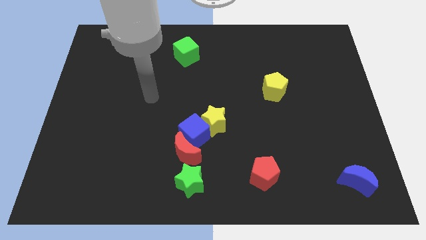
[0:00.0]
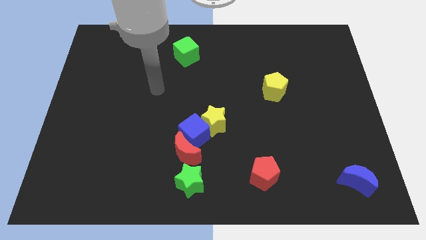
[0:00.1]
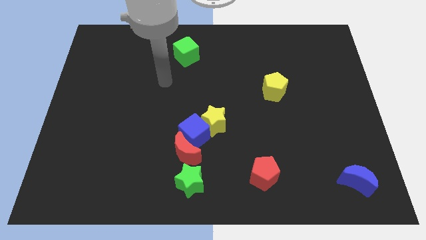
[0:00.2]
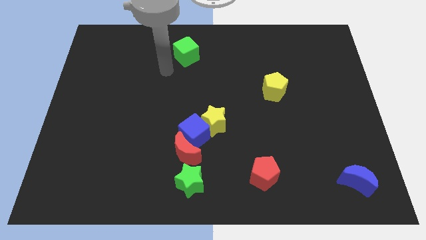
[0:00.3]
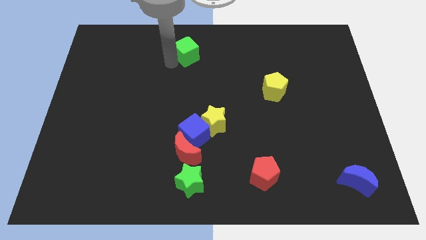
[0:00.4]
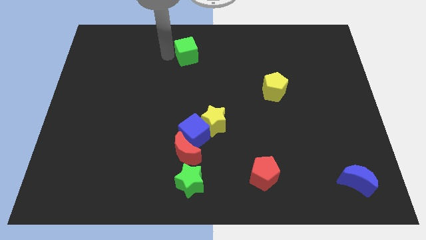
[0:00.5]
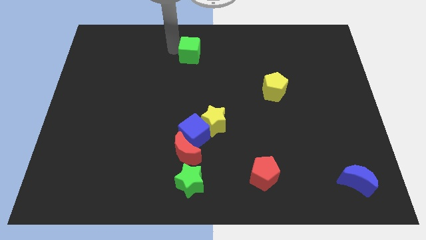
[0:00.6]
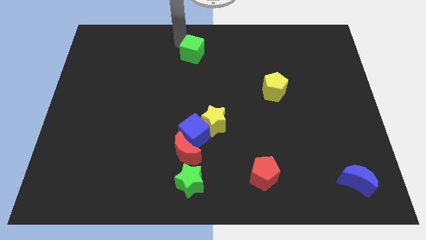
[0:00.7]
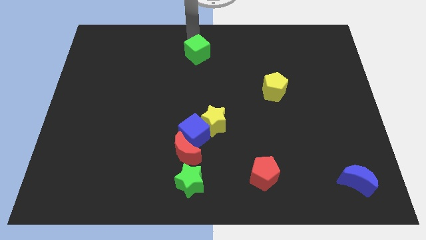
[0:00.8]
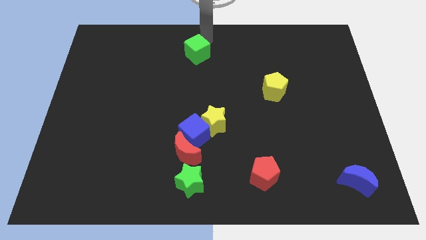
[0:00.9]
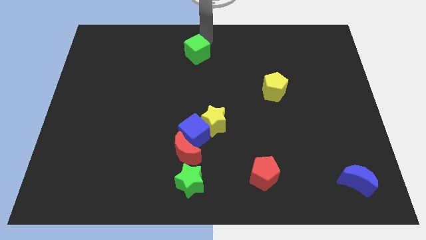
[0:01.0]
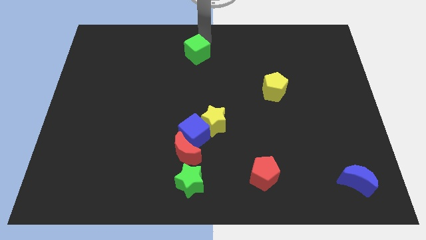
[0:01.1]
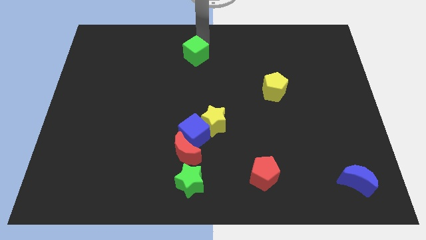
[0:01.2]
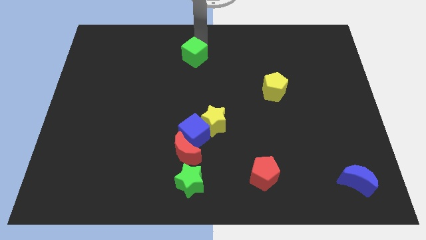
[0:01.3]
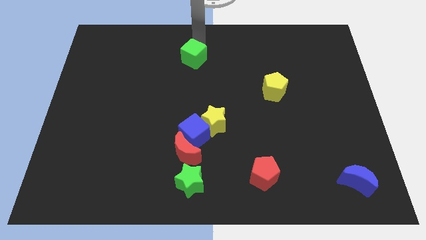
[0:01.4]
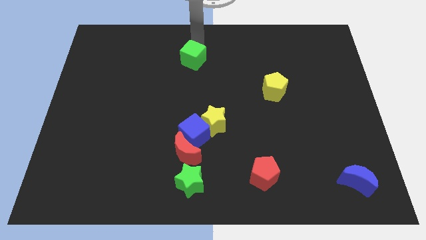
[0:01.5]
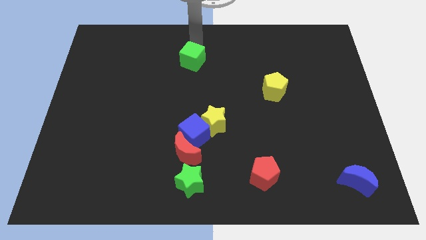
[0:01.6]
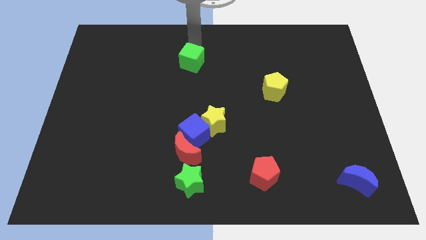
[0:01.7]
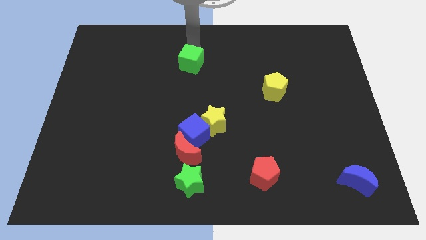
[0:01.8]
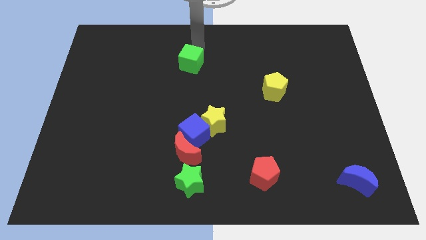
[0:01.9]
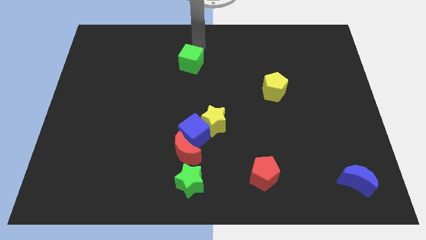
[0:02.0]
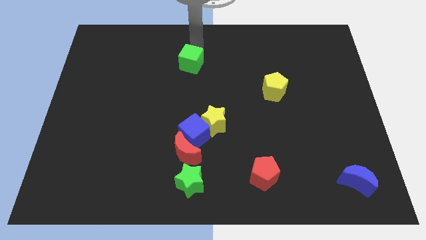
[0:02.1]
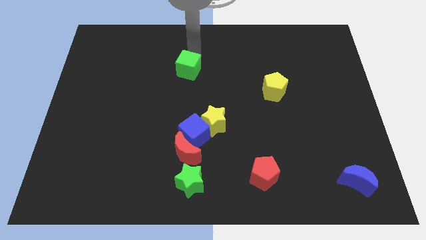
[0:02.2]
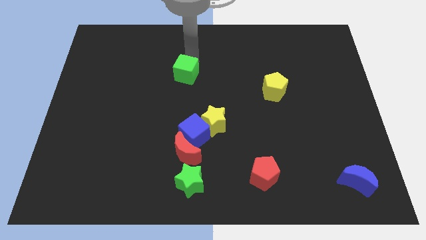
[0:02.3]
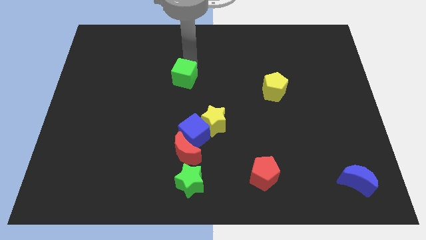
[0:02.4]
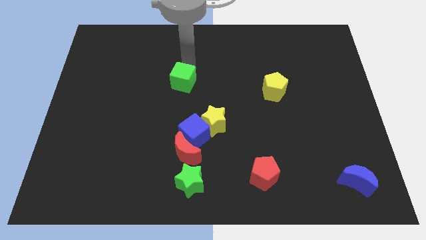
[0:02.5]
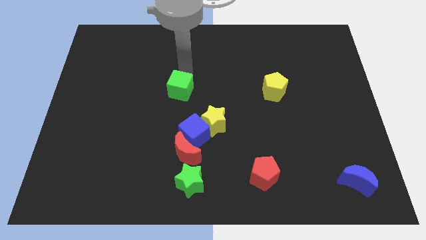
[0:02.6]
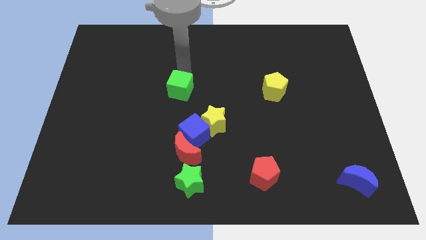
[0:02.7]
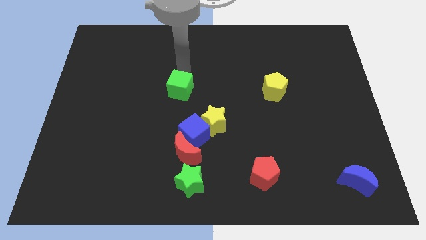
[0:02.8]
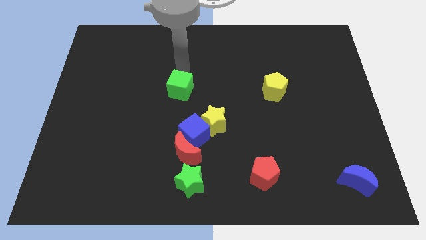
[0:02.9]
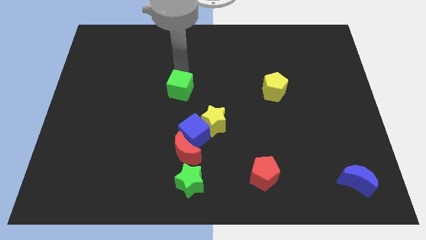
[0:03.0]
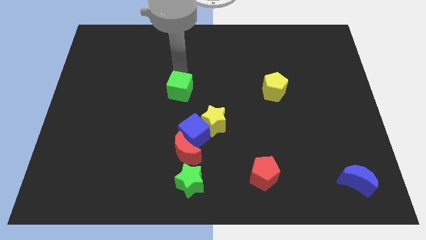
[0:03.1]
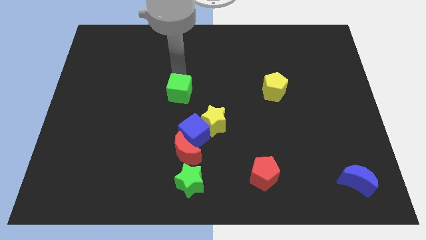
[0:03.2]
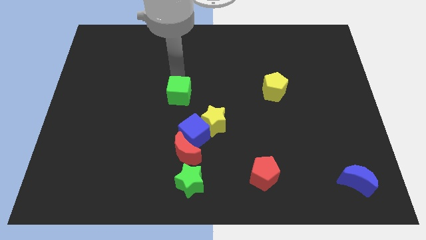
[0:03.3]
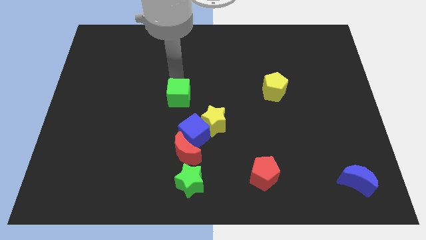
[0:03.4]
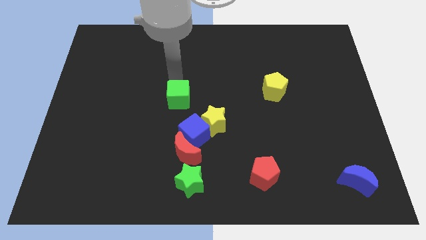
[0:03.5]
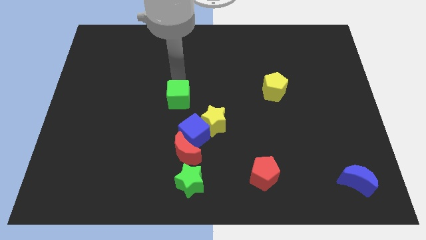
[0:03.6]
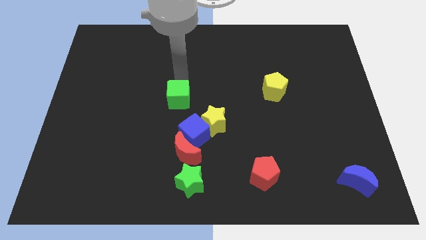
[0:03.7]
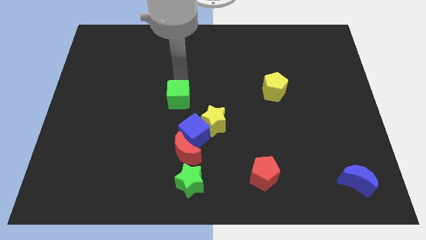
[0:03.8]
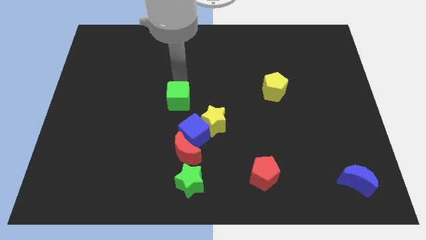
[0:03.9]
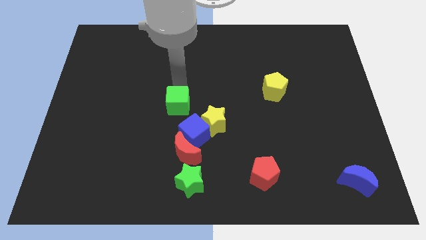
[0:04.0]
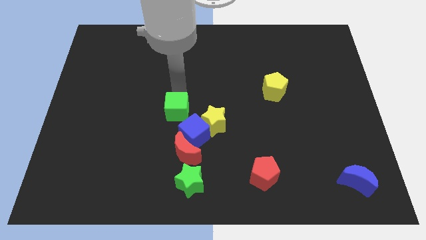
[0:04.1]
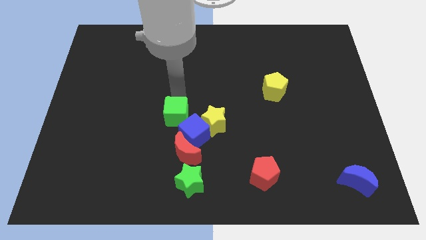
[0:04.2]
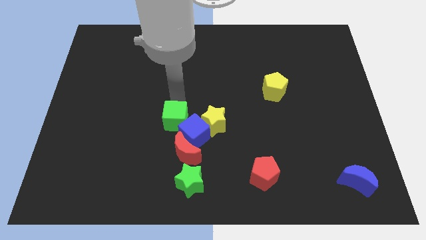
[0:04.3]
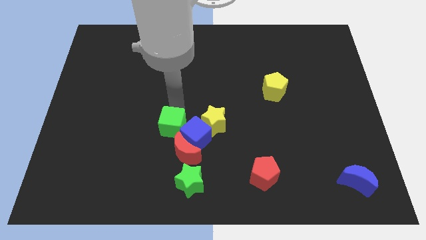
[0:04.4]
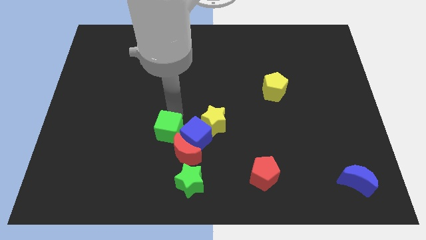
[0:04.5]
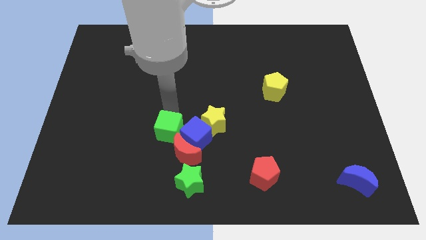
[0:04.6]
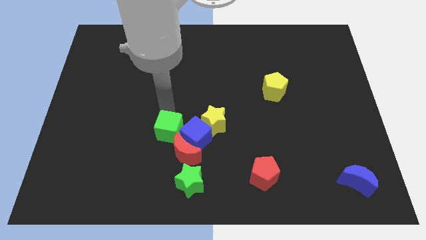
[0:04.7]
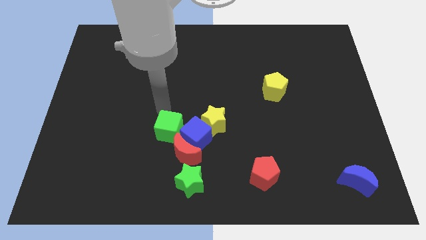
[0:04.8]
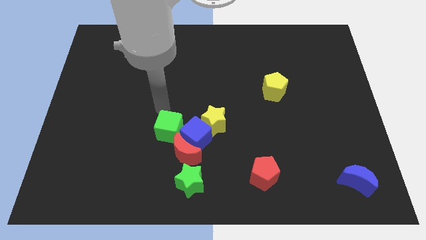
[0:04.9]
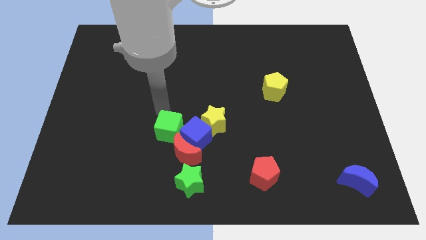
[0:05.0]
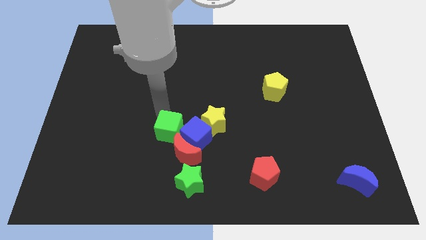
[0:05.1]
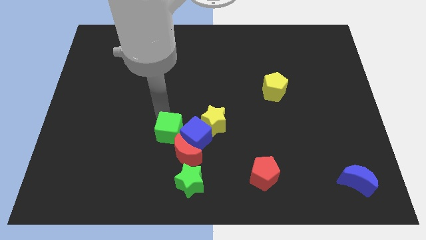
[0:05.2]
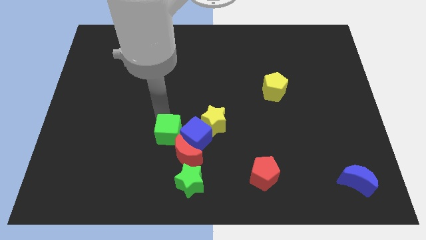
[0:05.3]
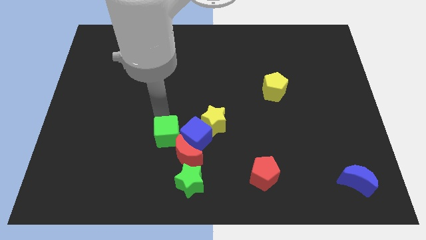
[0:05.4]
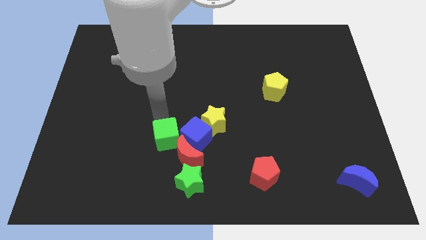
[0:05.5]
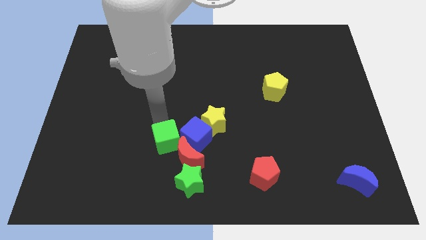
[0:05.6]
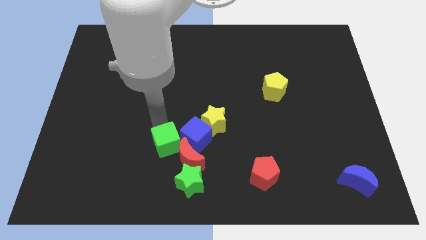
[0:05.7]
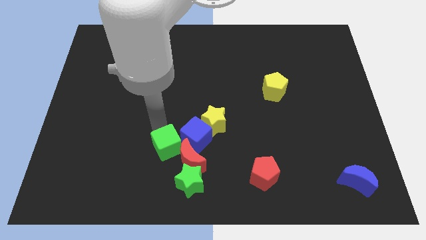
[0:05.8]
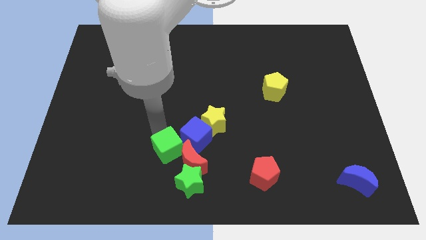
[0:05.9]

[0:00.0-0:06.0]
push the green cube next to the red moon
